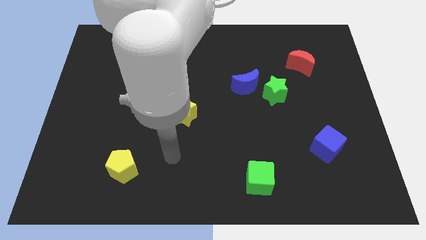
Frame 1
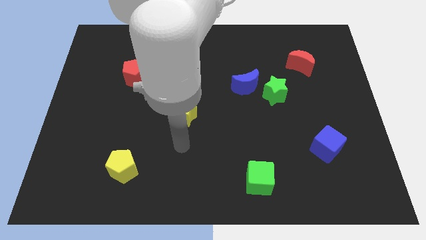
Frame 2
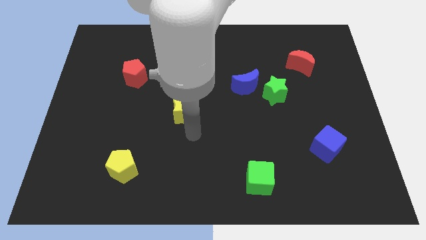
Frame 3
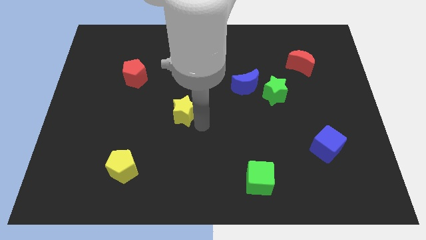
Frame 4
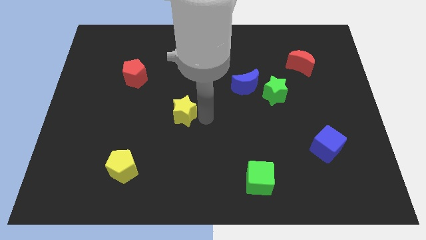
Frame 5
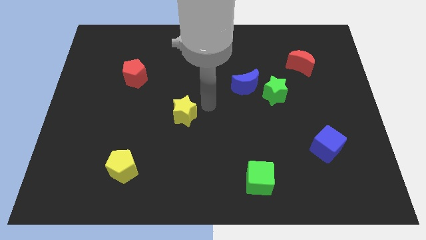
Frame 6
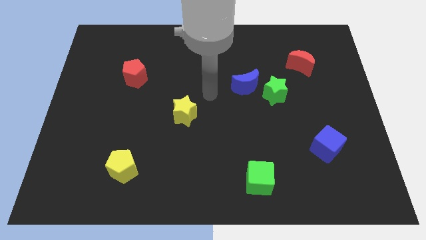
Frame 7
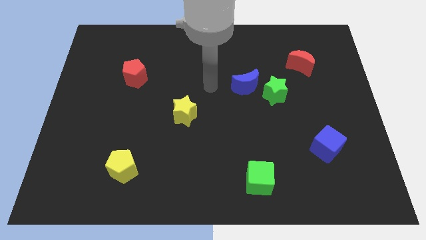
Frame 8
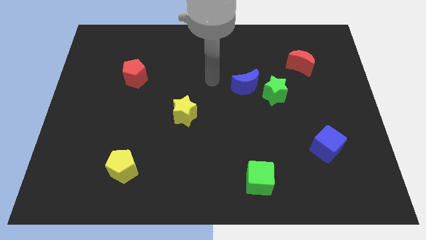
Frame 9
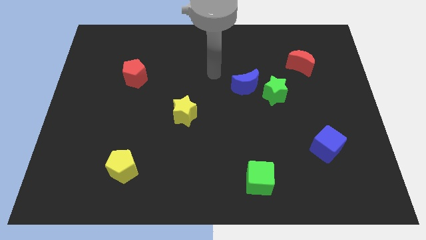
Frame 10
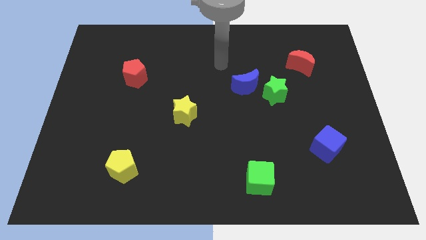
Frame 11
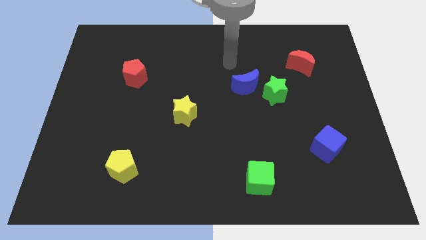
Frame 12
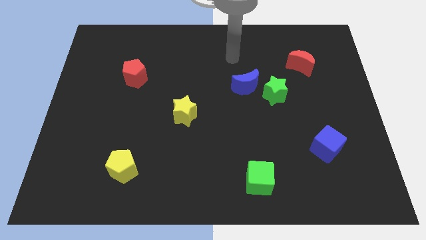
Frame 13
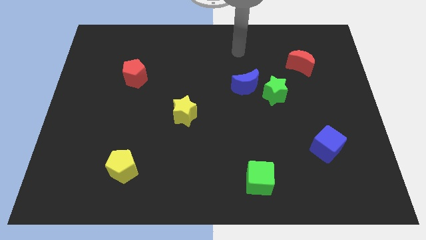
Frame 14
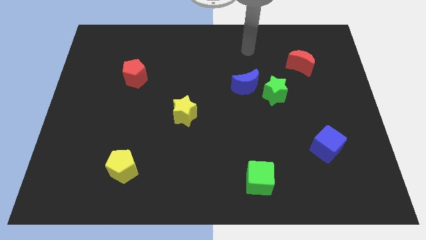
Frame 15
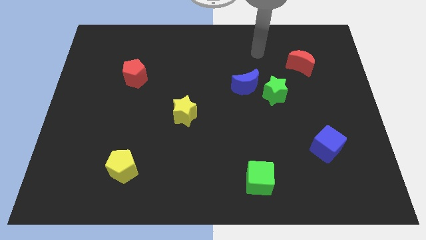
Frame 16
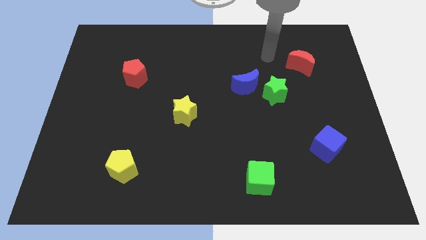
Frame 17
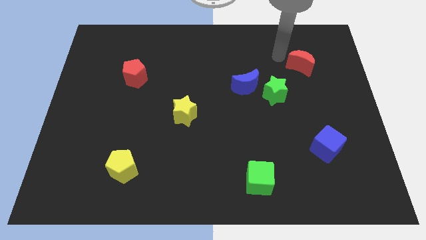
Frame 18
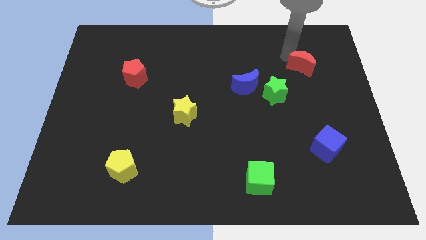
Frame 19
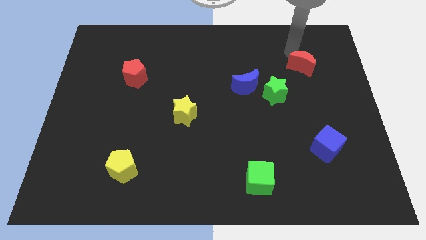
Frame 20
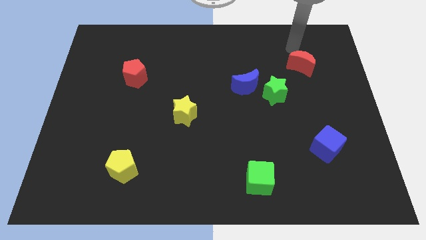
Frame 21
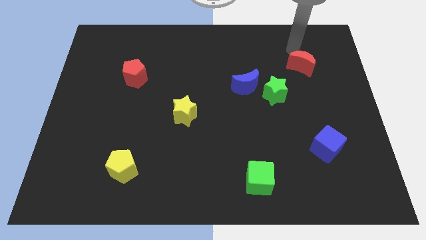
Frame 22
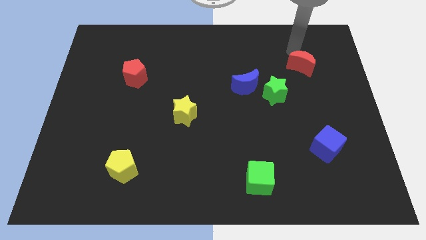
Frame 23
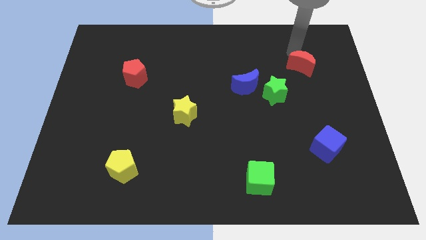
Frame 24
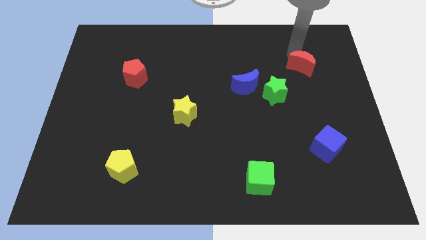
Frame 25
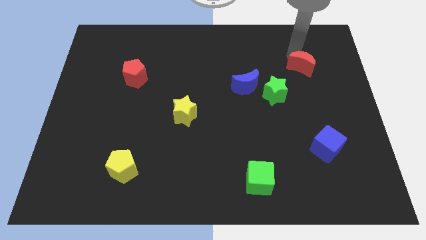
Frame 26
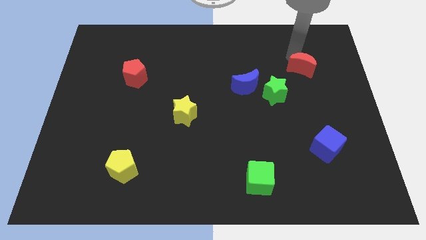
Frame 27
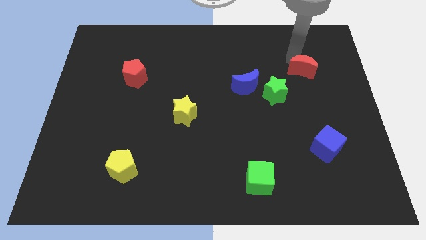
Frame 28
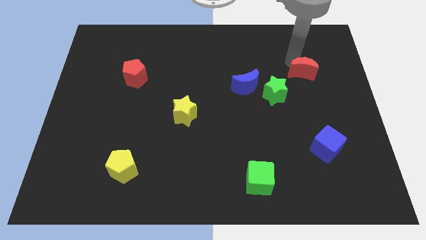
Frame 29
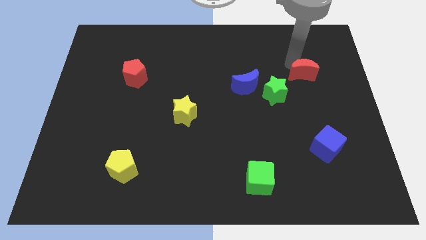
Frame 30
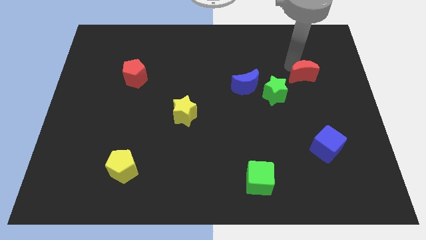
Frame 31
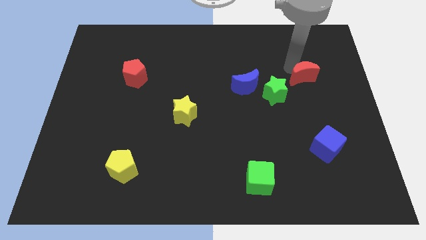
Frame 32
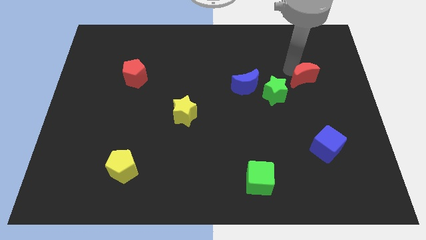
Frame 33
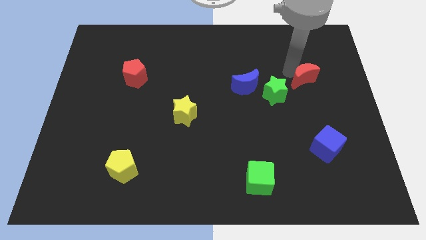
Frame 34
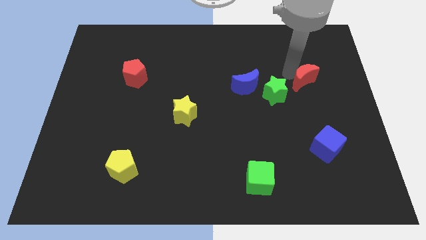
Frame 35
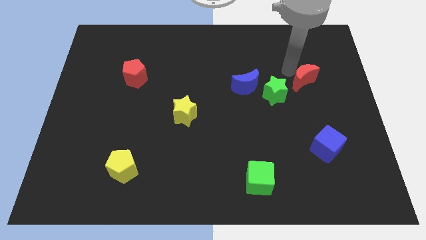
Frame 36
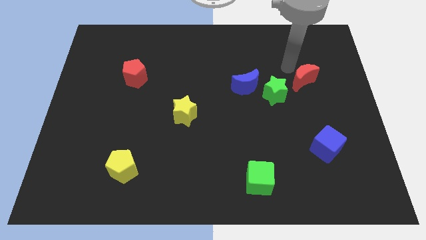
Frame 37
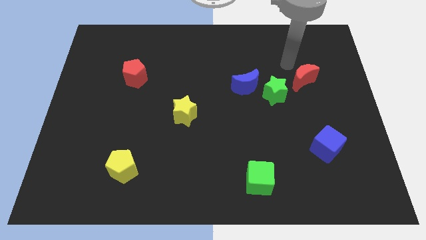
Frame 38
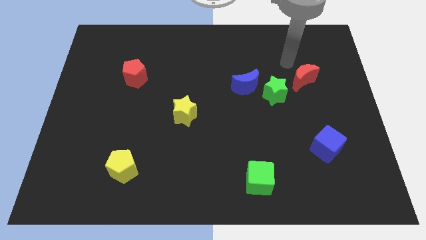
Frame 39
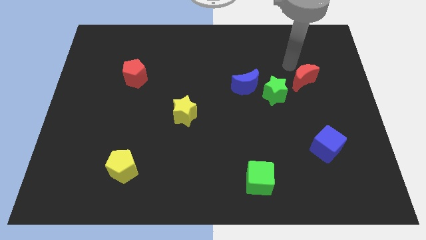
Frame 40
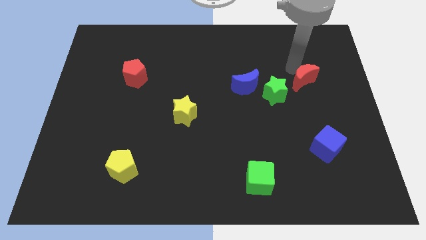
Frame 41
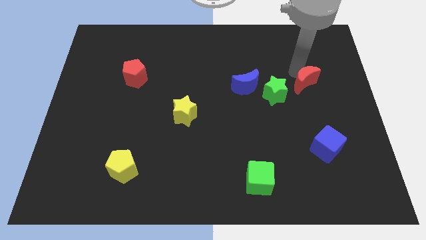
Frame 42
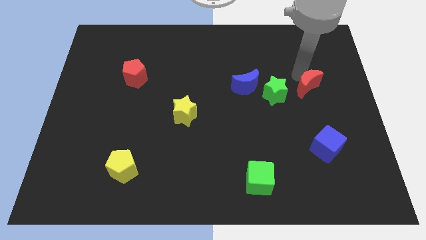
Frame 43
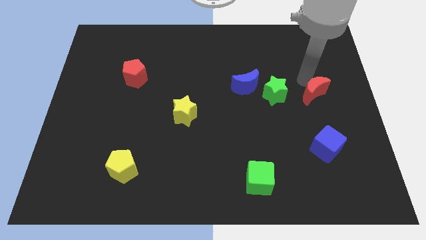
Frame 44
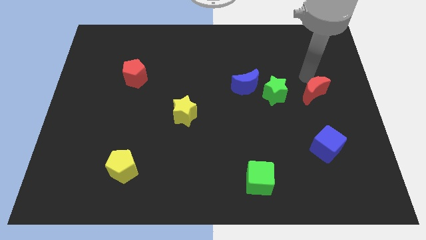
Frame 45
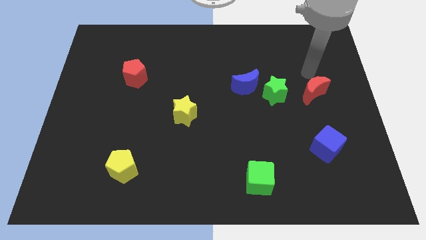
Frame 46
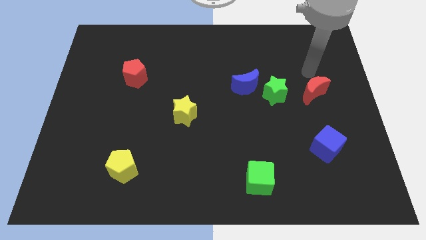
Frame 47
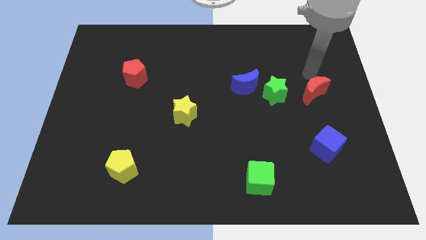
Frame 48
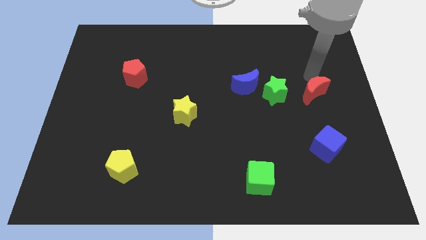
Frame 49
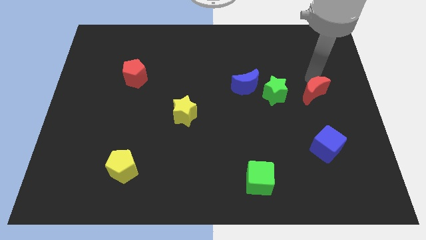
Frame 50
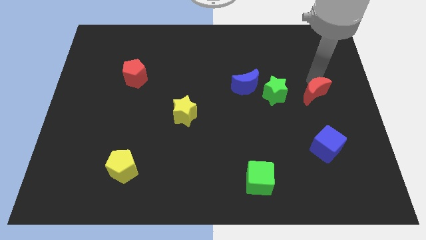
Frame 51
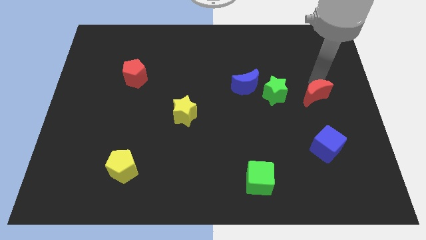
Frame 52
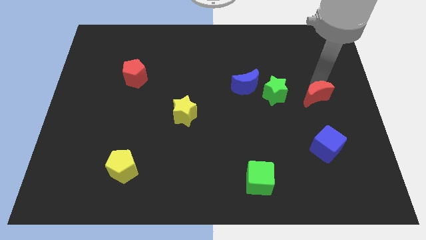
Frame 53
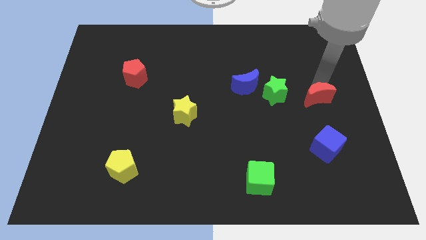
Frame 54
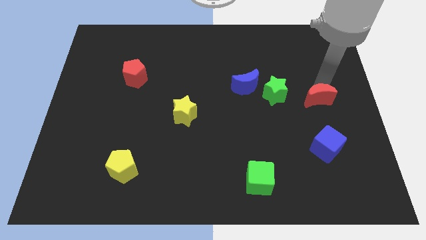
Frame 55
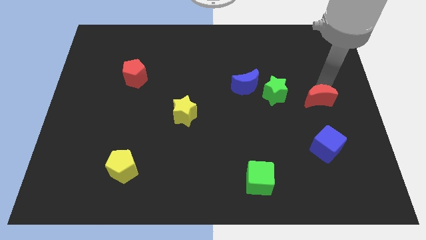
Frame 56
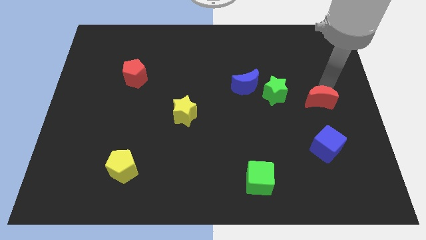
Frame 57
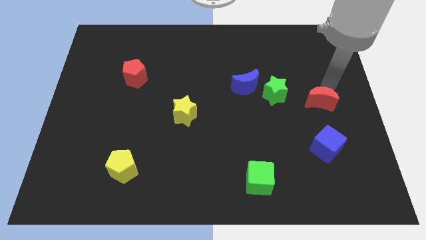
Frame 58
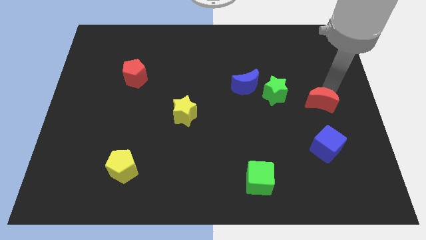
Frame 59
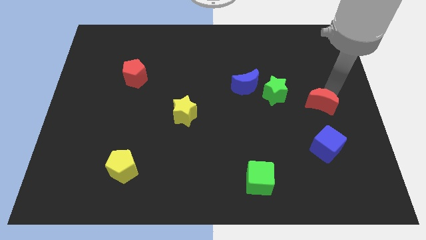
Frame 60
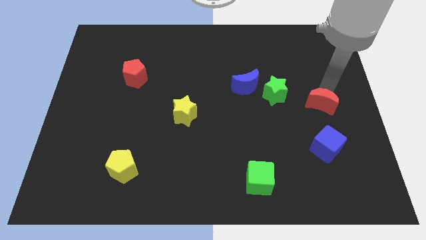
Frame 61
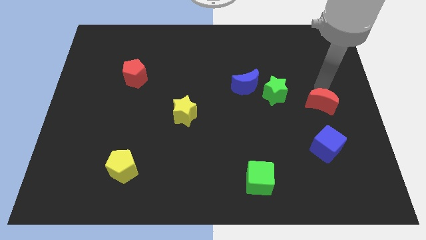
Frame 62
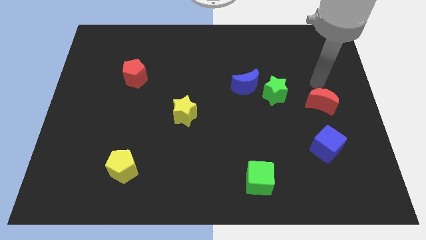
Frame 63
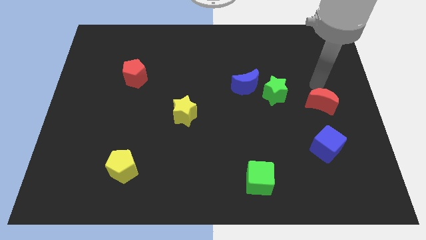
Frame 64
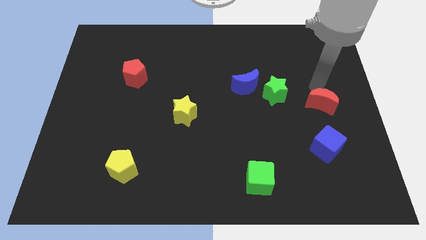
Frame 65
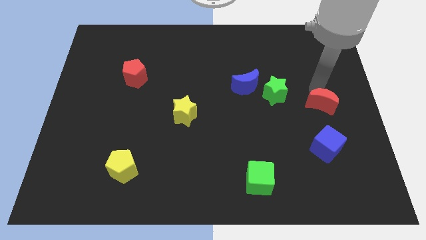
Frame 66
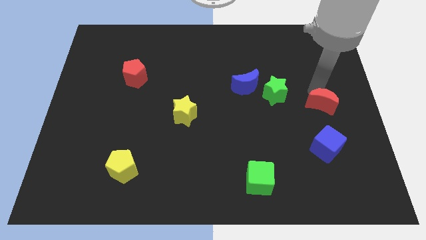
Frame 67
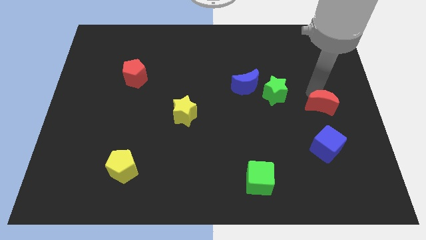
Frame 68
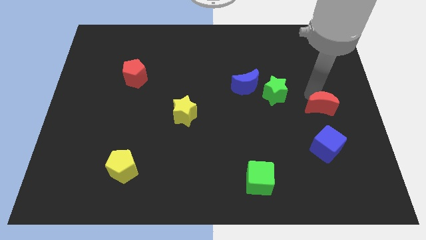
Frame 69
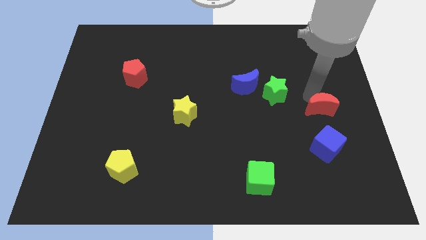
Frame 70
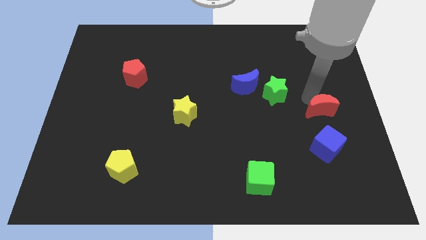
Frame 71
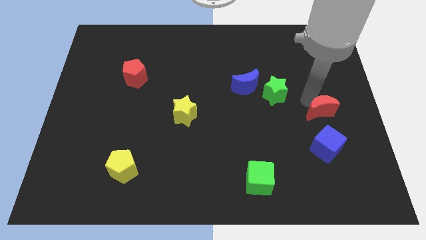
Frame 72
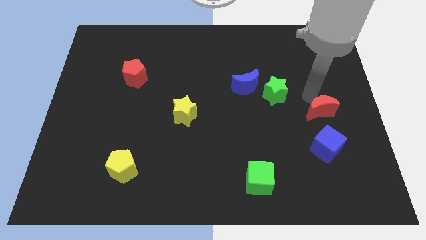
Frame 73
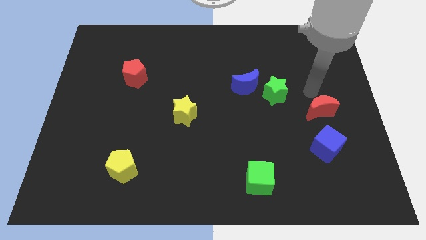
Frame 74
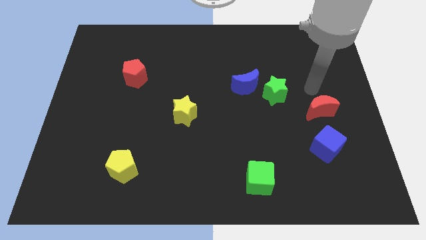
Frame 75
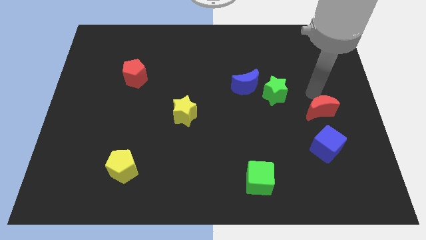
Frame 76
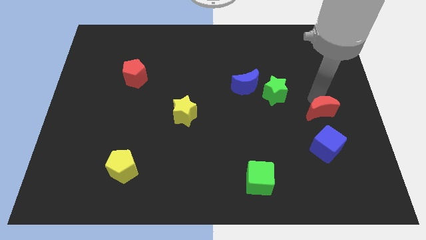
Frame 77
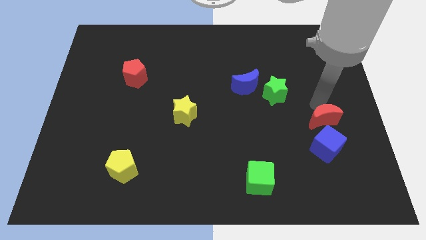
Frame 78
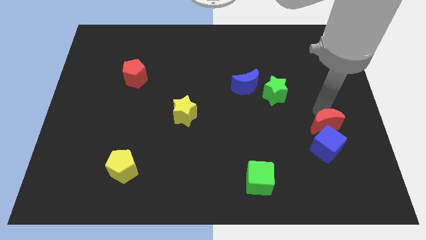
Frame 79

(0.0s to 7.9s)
put the red moon towards the blue cube
